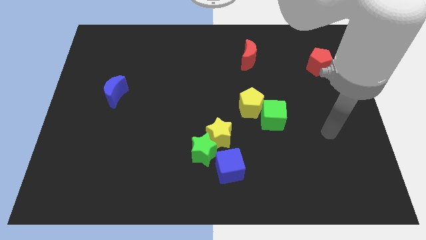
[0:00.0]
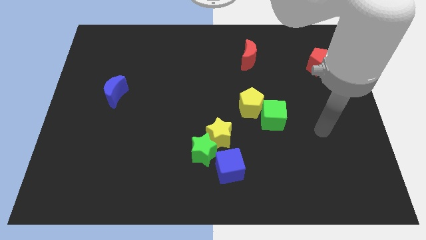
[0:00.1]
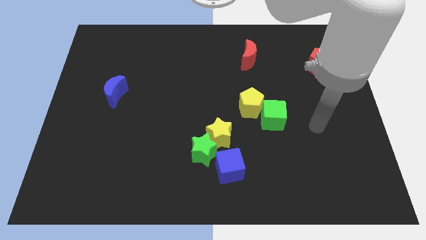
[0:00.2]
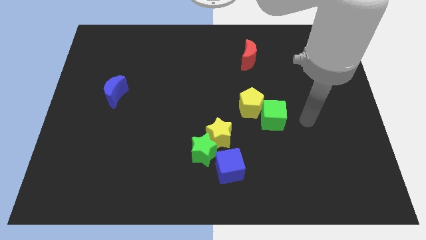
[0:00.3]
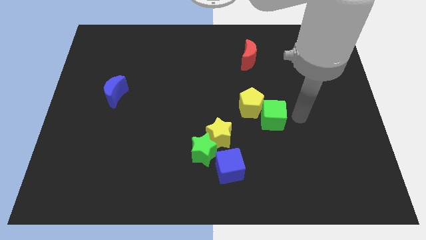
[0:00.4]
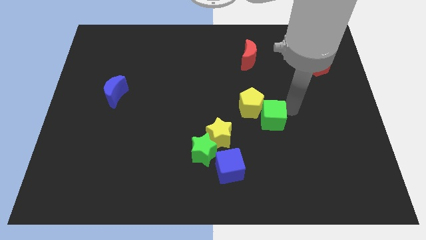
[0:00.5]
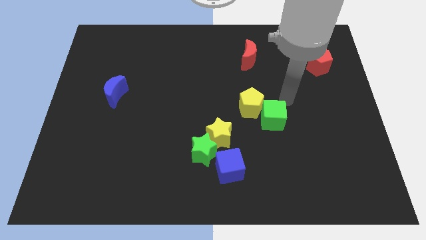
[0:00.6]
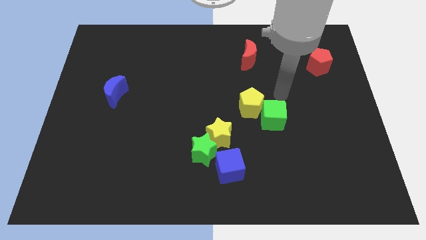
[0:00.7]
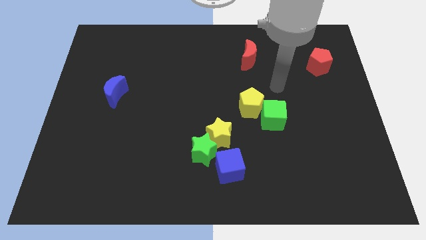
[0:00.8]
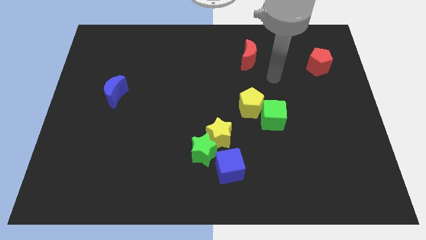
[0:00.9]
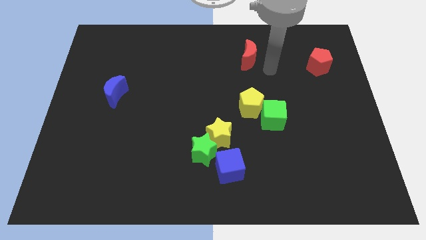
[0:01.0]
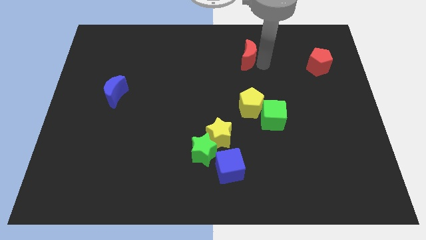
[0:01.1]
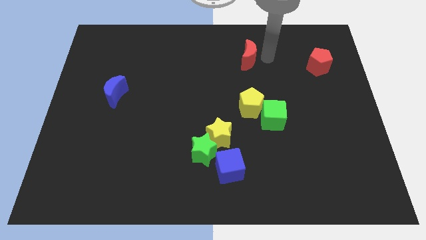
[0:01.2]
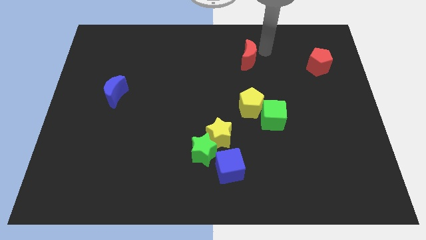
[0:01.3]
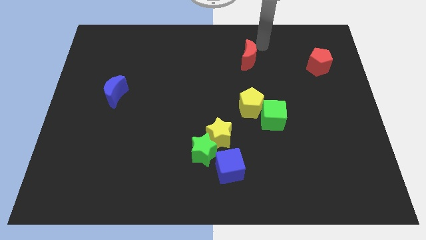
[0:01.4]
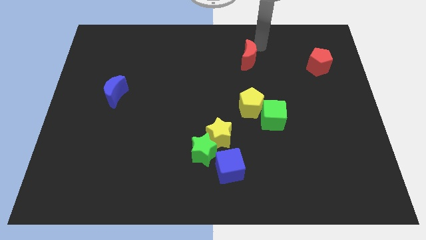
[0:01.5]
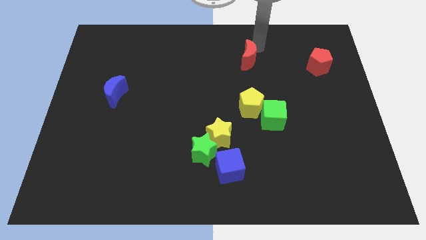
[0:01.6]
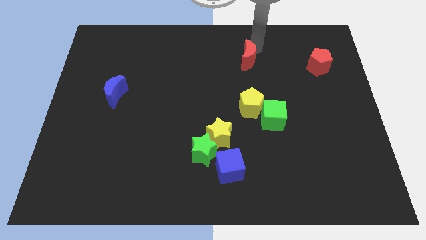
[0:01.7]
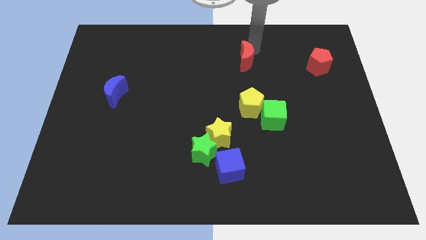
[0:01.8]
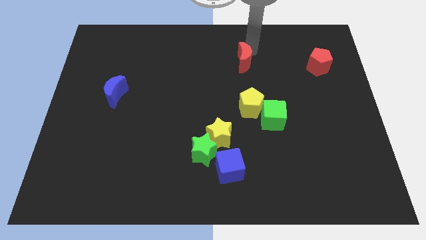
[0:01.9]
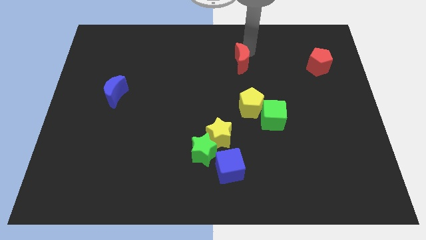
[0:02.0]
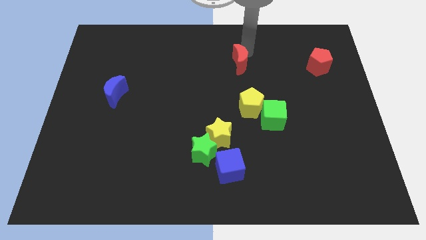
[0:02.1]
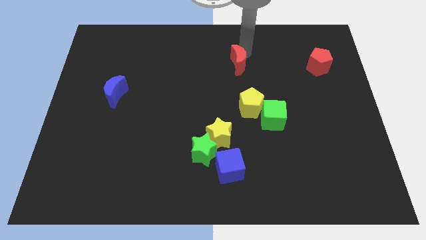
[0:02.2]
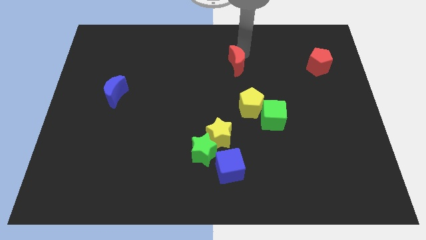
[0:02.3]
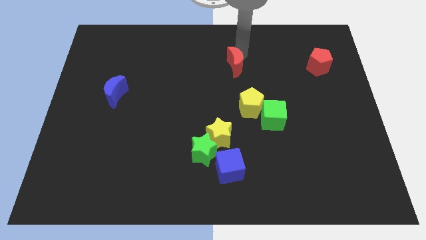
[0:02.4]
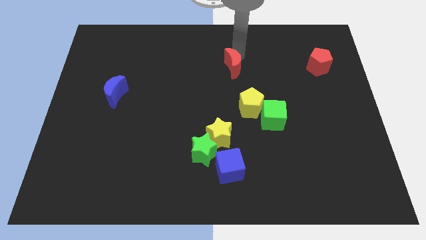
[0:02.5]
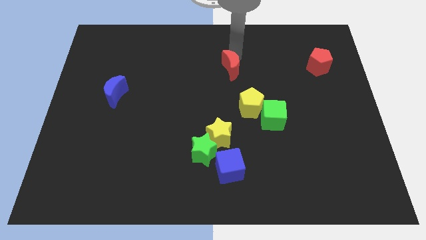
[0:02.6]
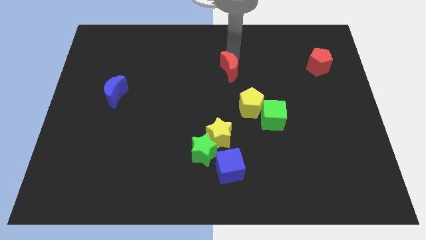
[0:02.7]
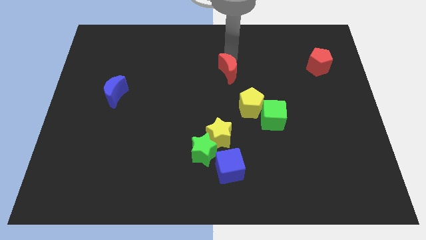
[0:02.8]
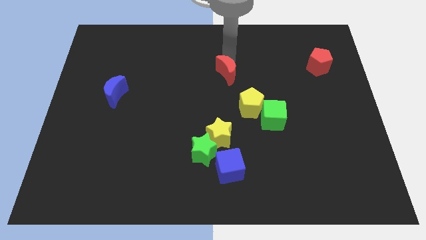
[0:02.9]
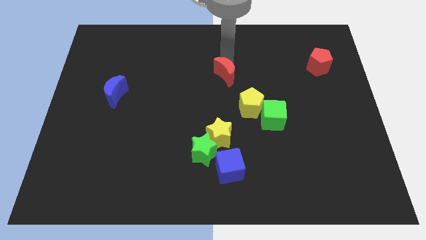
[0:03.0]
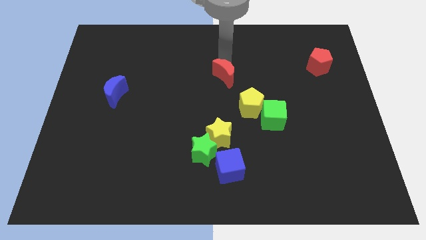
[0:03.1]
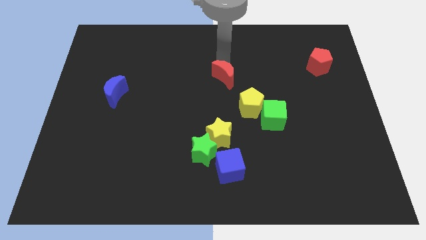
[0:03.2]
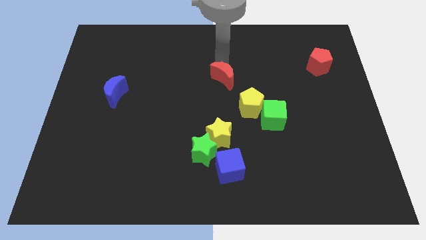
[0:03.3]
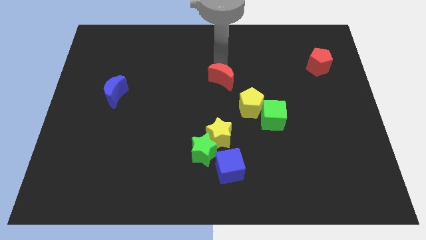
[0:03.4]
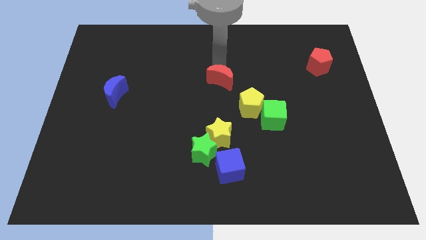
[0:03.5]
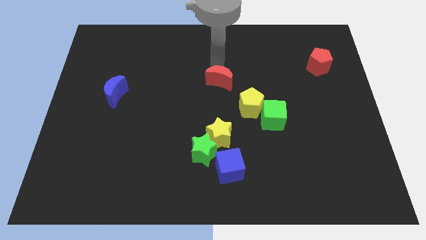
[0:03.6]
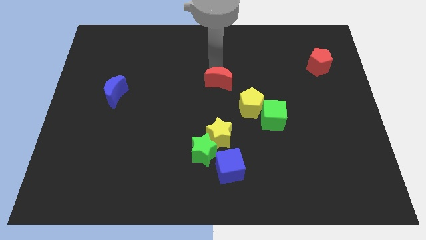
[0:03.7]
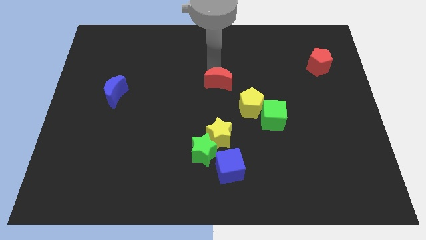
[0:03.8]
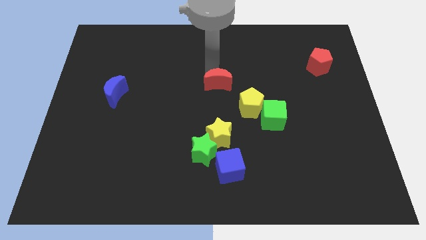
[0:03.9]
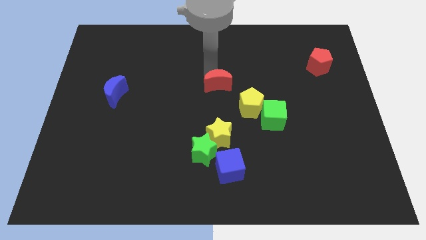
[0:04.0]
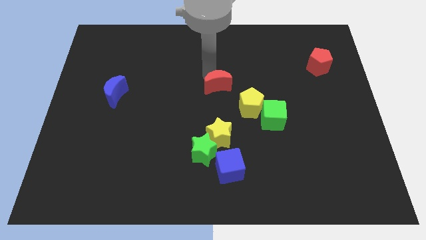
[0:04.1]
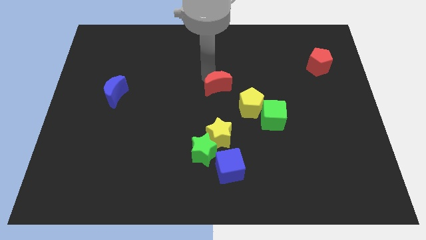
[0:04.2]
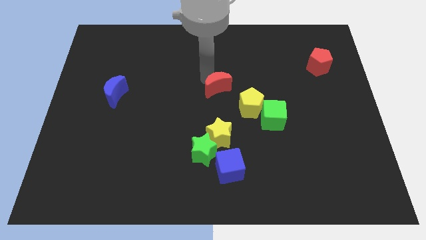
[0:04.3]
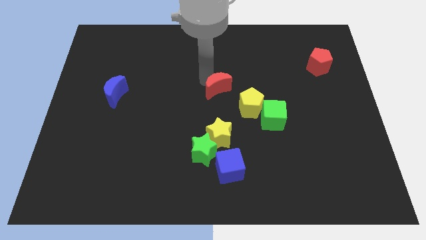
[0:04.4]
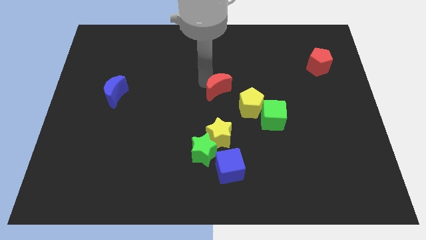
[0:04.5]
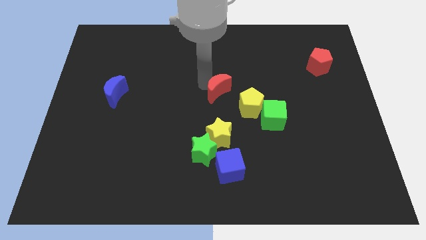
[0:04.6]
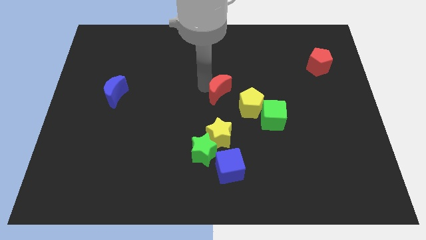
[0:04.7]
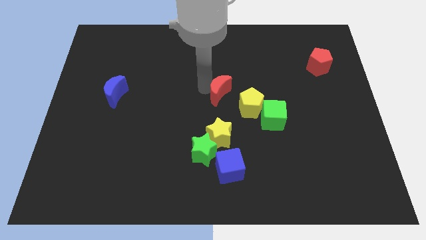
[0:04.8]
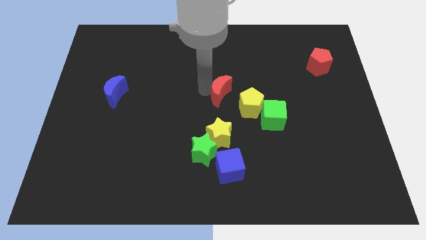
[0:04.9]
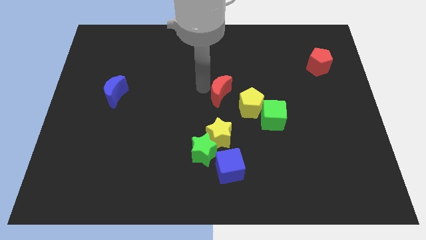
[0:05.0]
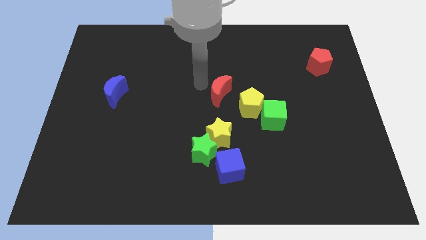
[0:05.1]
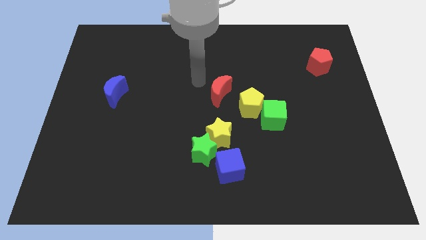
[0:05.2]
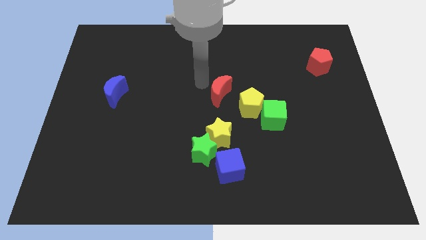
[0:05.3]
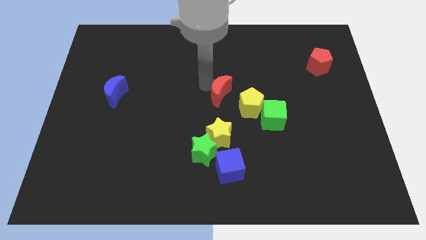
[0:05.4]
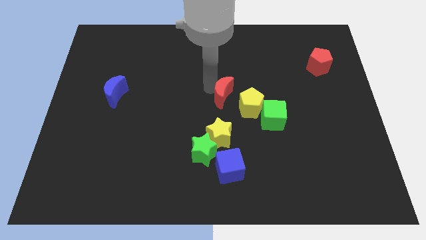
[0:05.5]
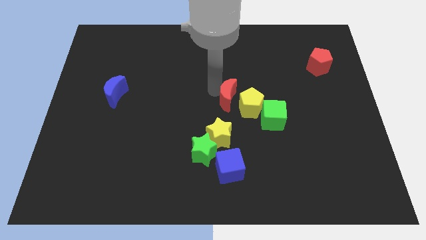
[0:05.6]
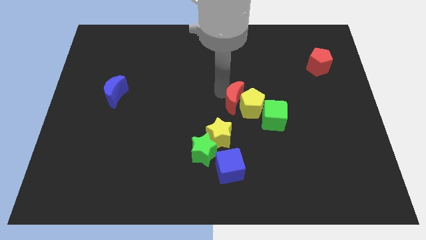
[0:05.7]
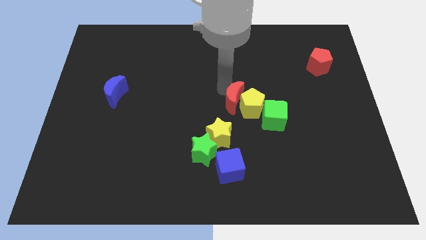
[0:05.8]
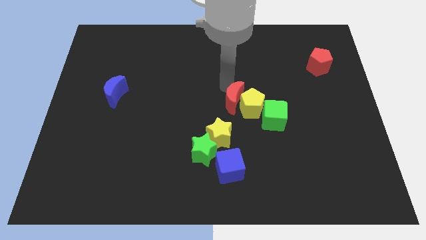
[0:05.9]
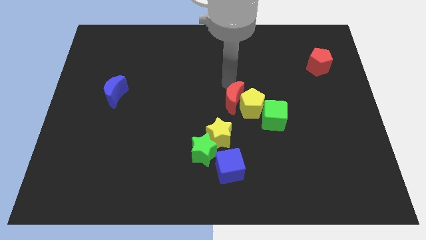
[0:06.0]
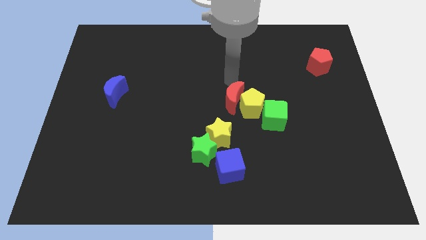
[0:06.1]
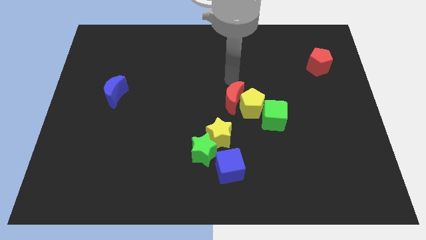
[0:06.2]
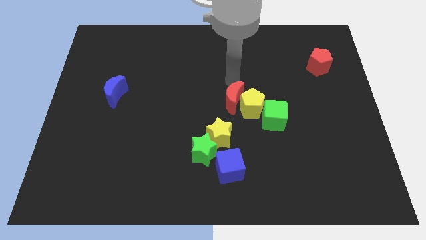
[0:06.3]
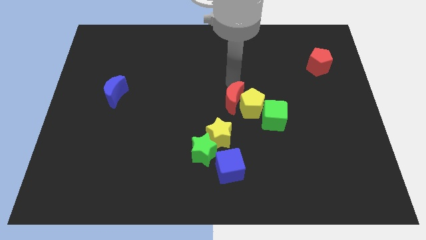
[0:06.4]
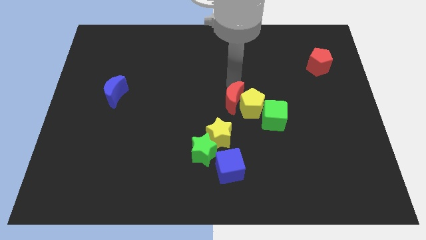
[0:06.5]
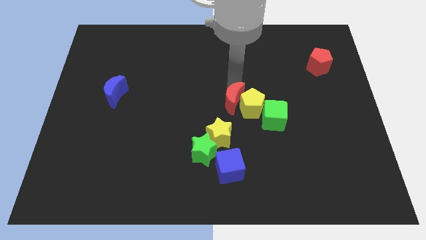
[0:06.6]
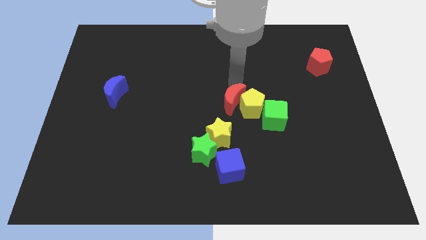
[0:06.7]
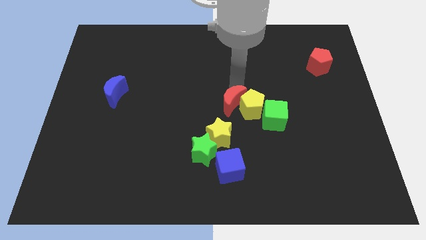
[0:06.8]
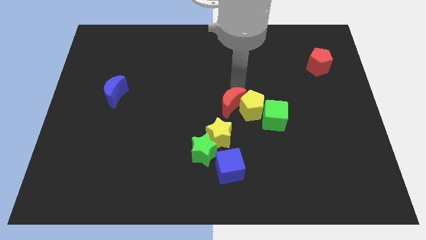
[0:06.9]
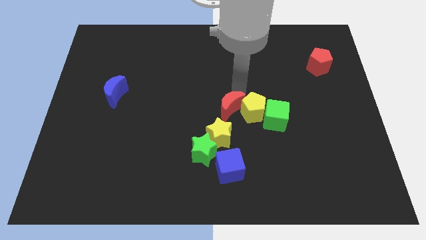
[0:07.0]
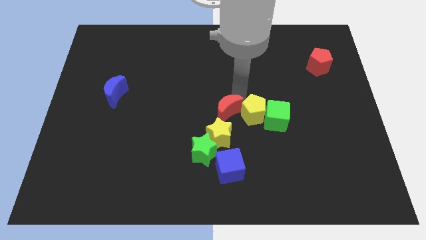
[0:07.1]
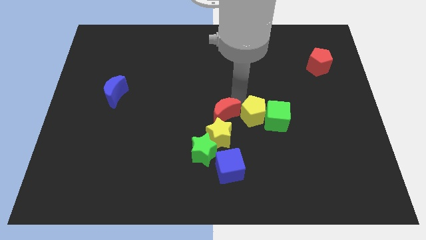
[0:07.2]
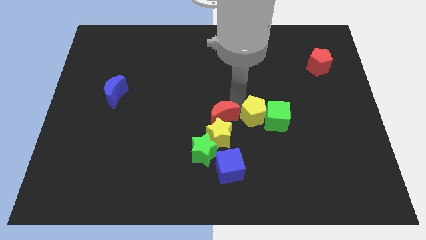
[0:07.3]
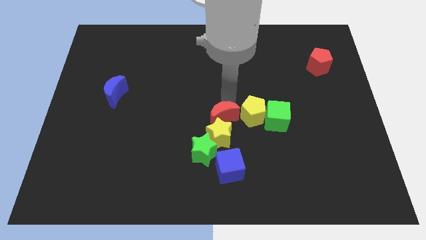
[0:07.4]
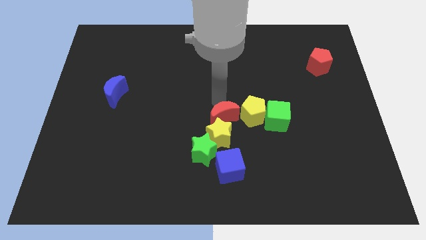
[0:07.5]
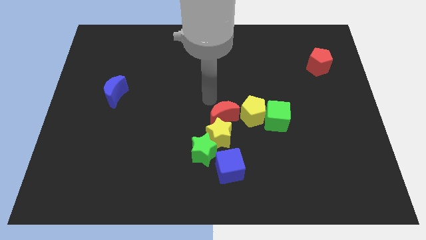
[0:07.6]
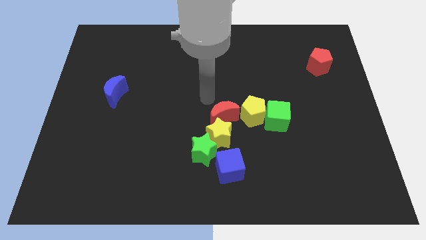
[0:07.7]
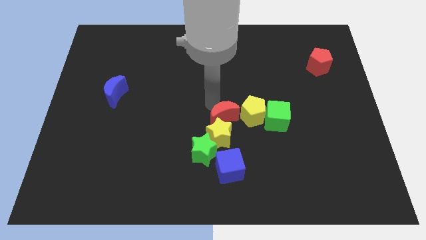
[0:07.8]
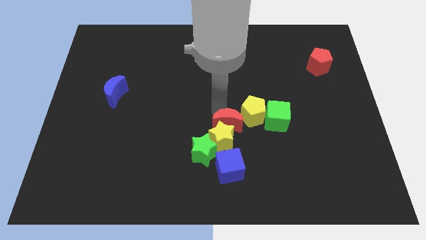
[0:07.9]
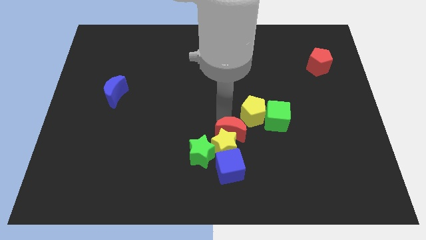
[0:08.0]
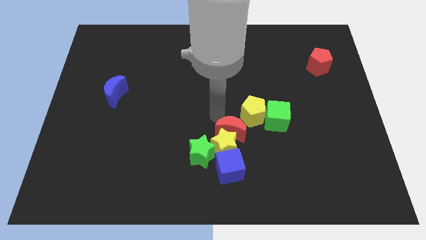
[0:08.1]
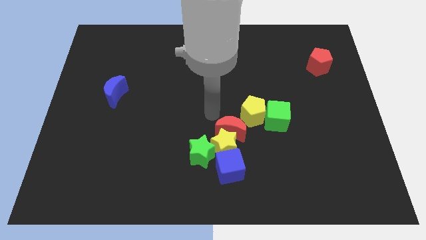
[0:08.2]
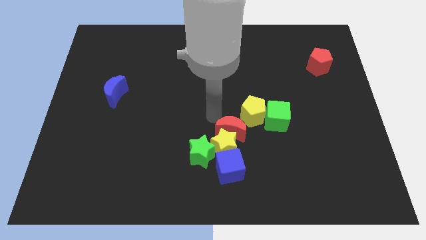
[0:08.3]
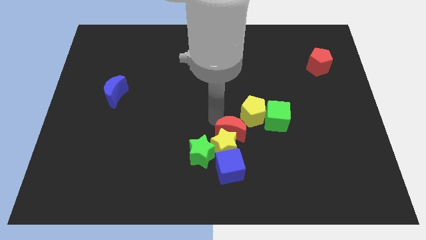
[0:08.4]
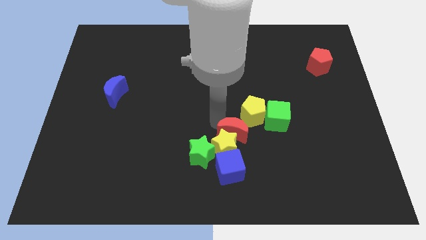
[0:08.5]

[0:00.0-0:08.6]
slide the red moon to the bottom of the yellow pentagon
